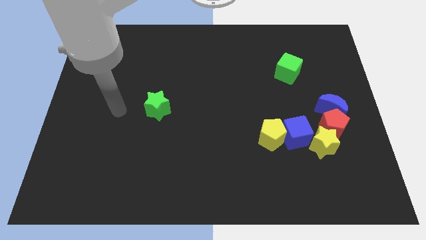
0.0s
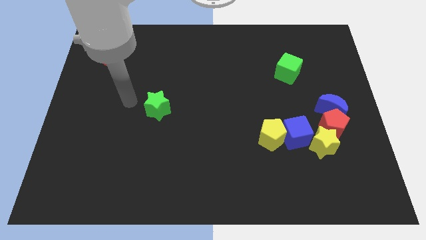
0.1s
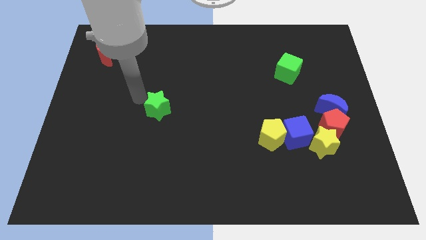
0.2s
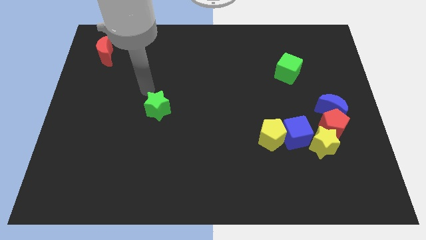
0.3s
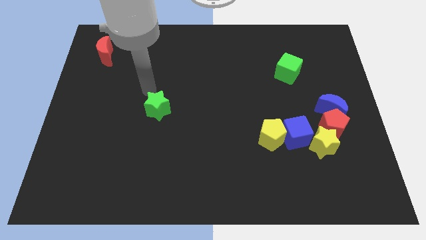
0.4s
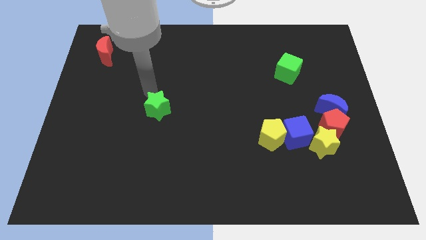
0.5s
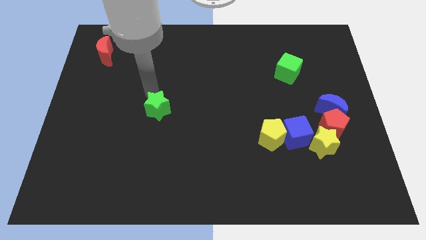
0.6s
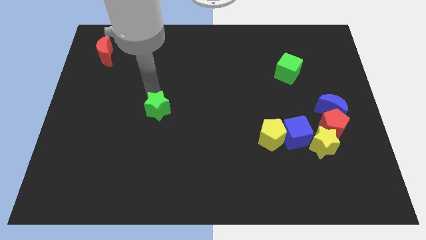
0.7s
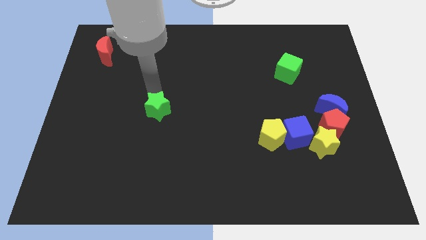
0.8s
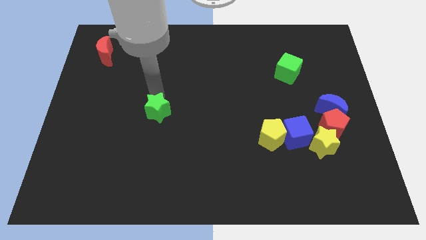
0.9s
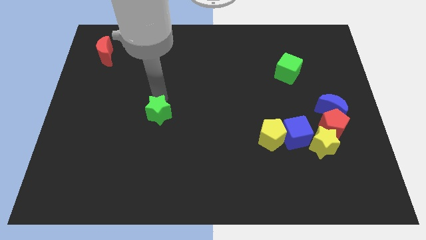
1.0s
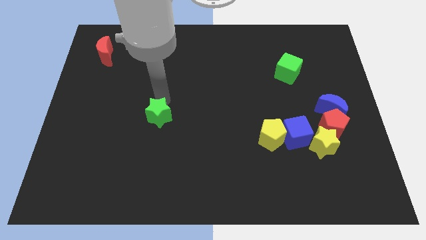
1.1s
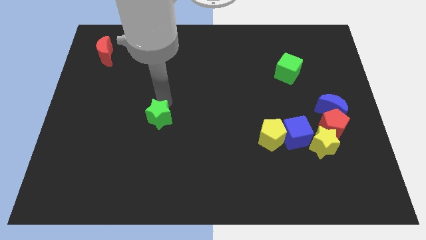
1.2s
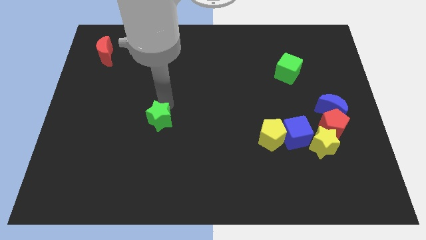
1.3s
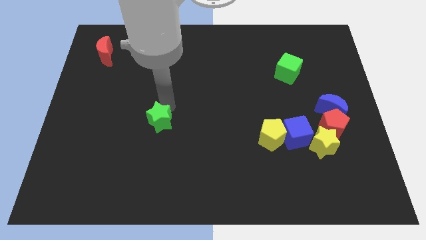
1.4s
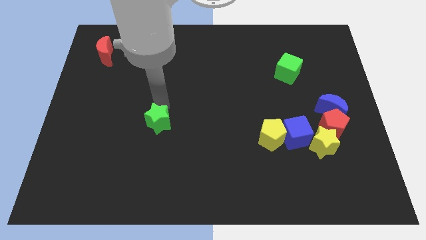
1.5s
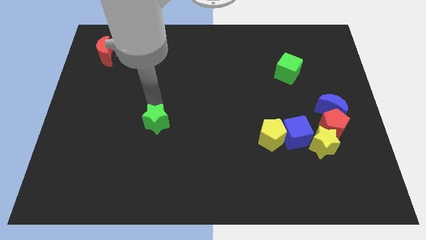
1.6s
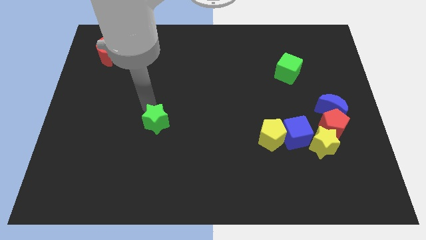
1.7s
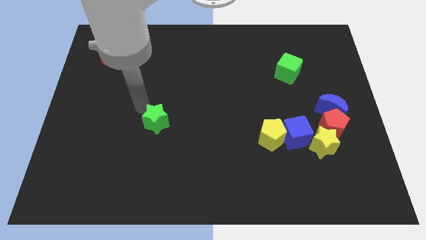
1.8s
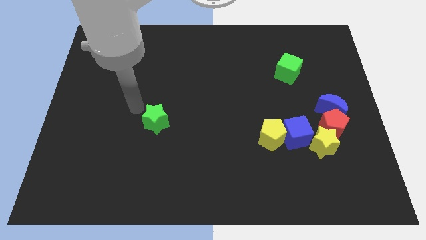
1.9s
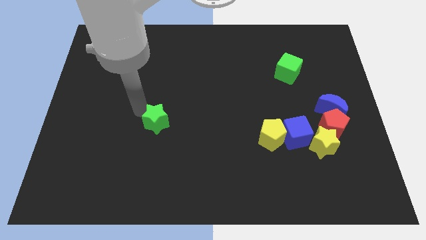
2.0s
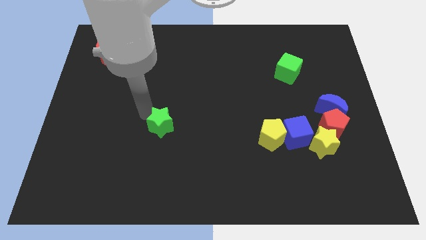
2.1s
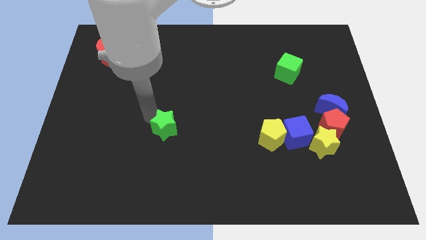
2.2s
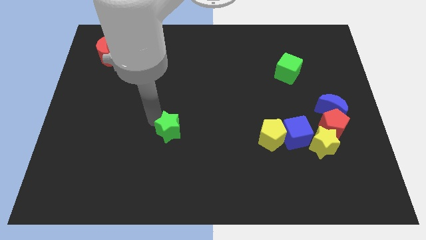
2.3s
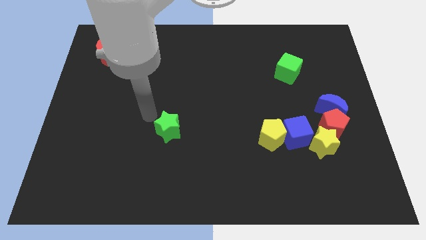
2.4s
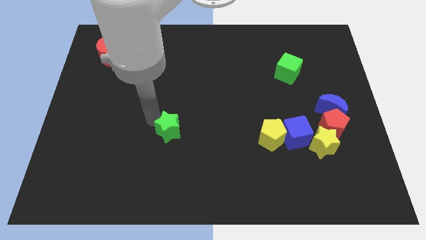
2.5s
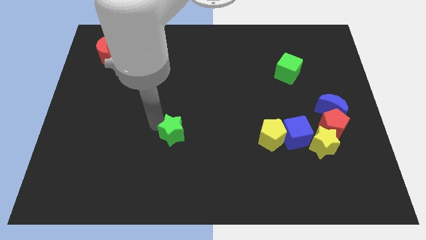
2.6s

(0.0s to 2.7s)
slightly slide the green star downwards and right

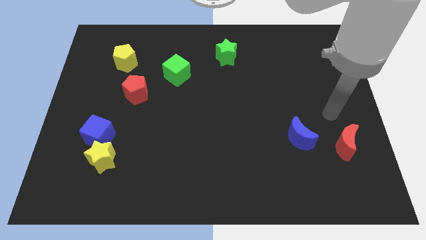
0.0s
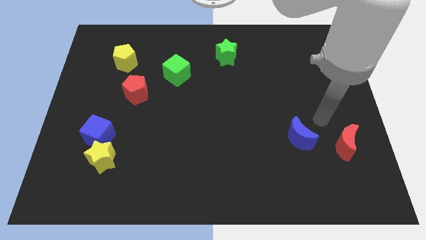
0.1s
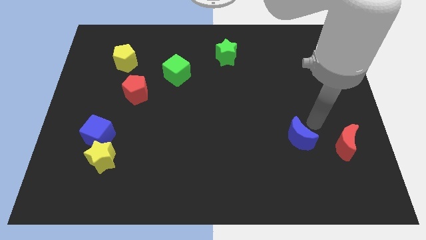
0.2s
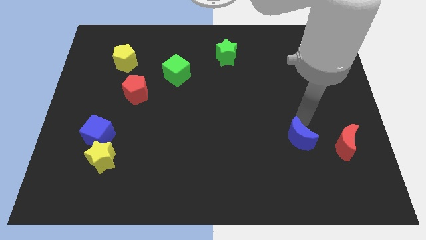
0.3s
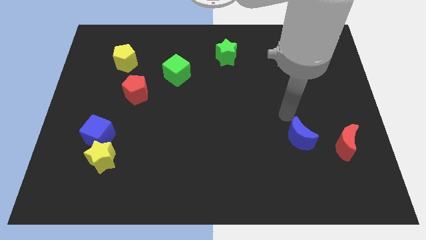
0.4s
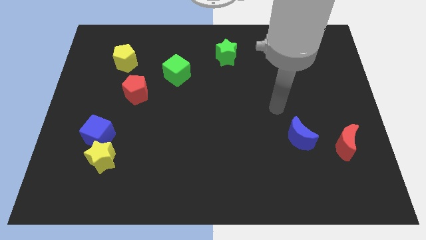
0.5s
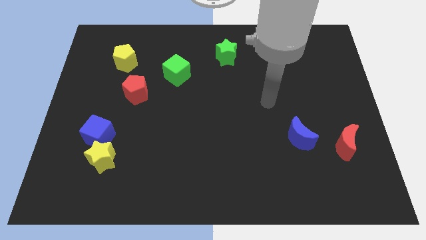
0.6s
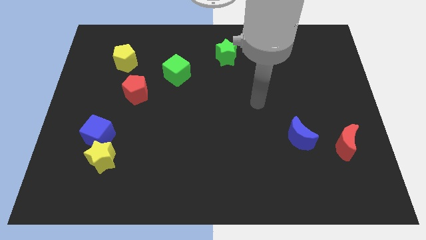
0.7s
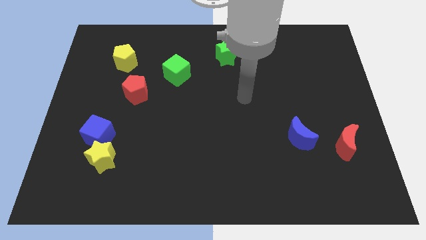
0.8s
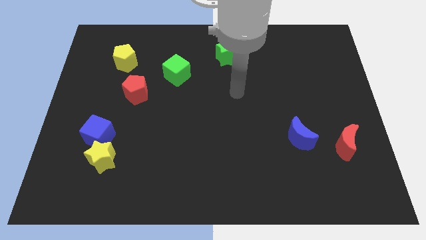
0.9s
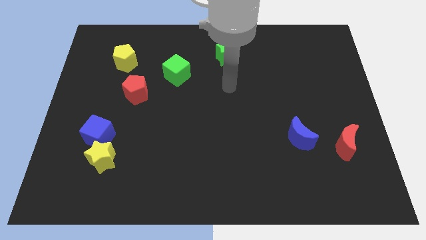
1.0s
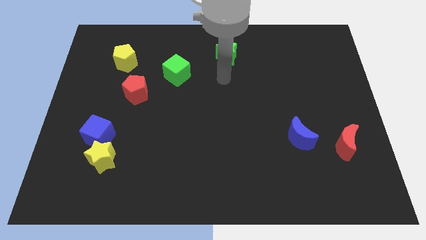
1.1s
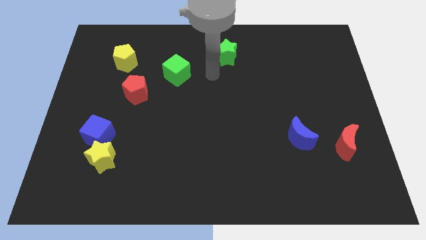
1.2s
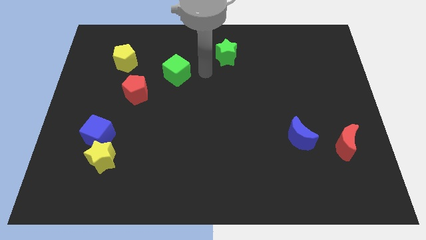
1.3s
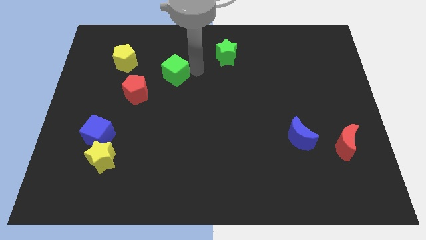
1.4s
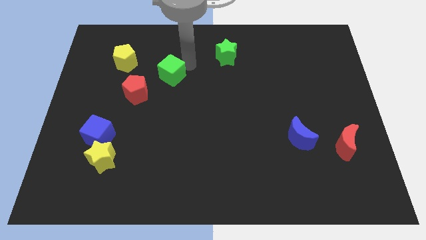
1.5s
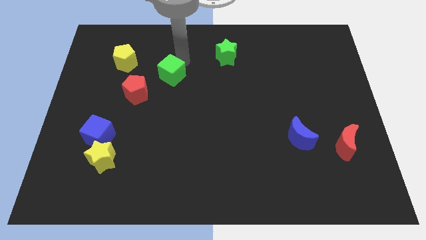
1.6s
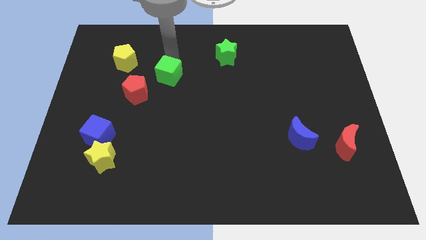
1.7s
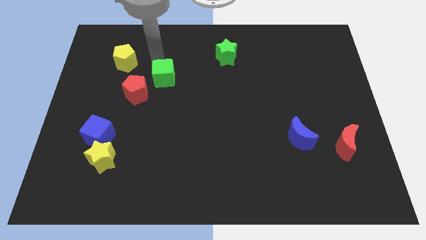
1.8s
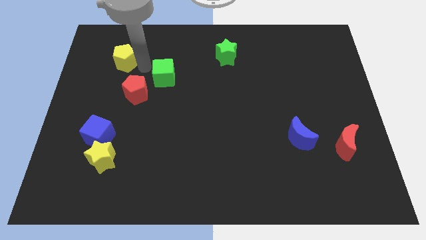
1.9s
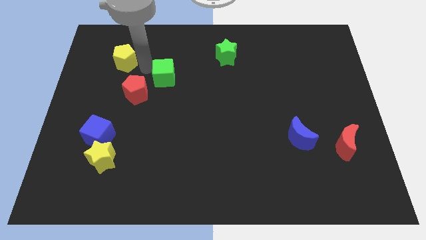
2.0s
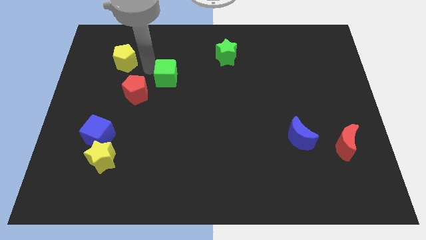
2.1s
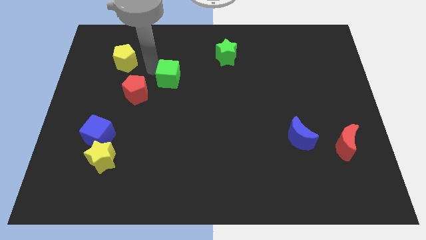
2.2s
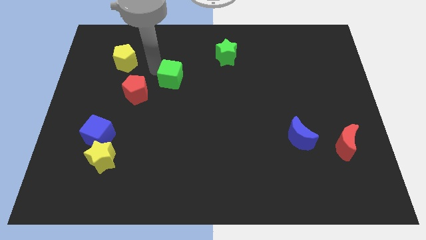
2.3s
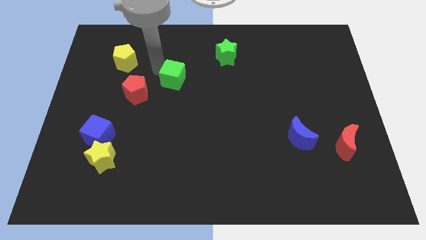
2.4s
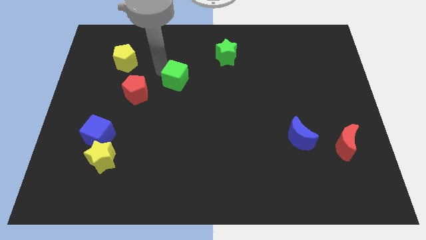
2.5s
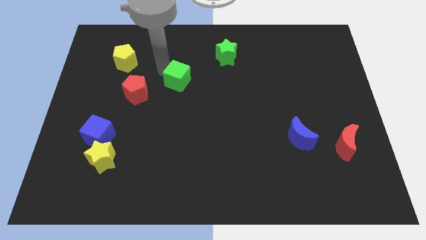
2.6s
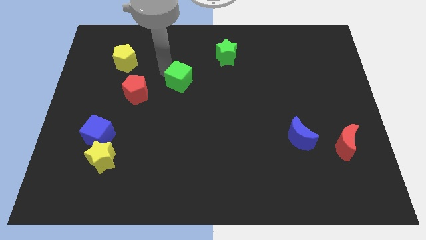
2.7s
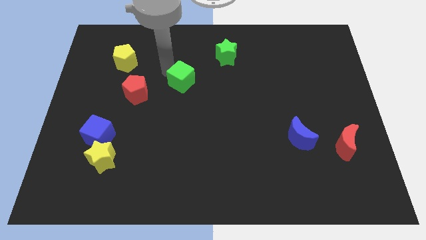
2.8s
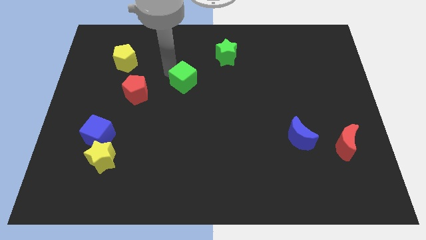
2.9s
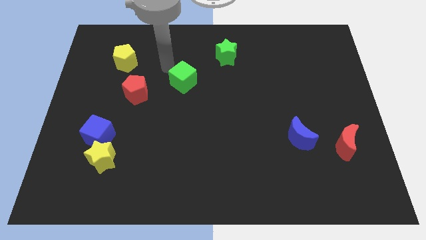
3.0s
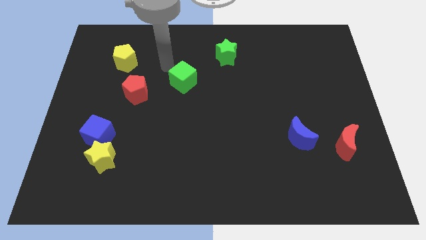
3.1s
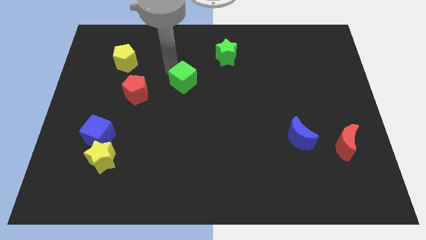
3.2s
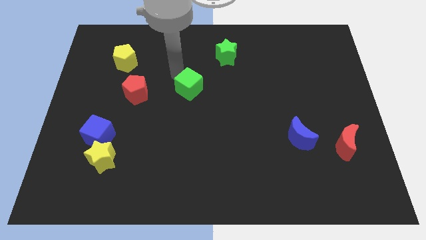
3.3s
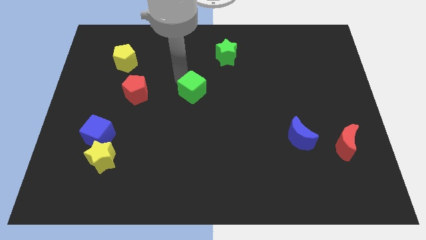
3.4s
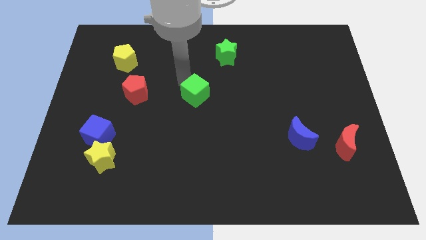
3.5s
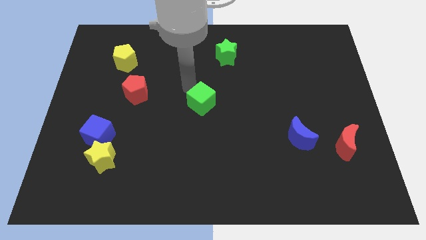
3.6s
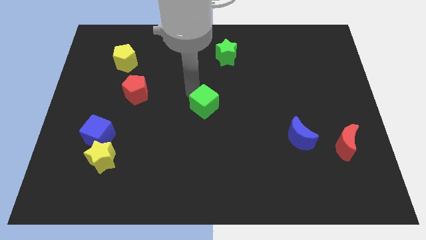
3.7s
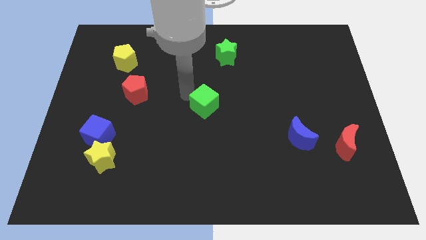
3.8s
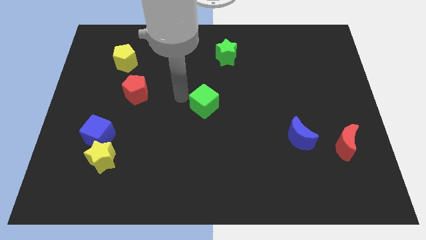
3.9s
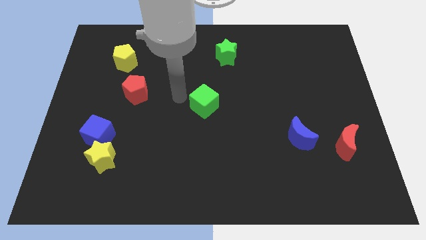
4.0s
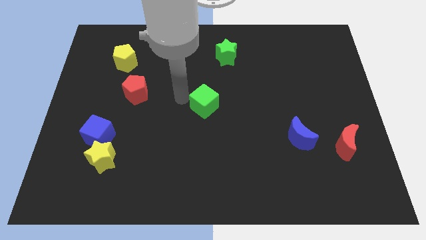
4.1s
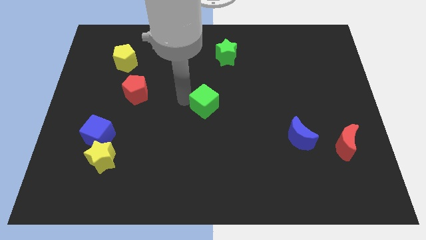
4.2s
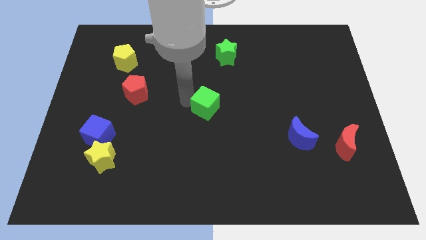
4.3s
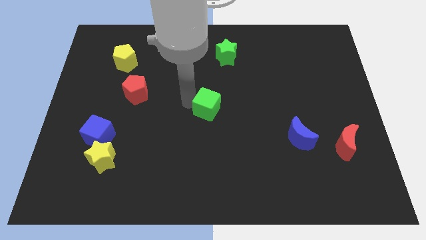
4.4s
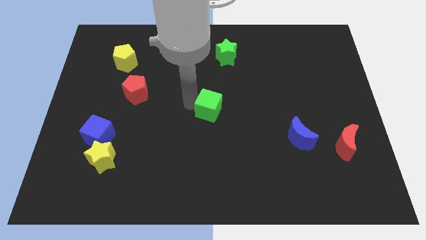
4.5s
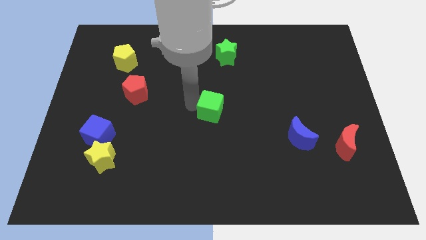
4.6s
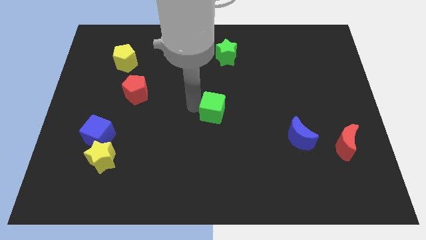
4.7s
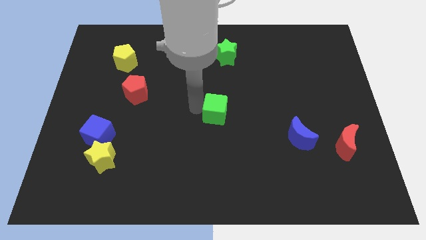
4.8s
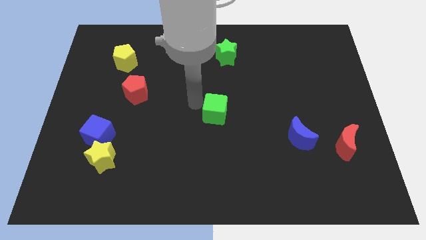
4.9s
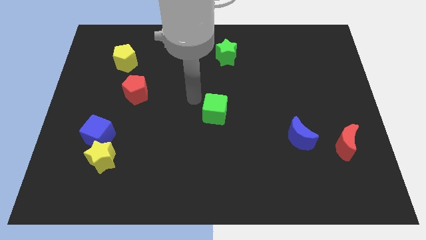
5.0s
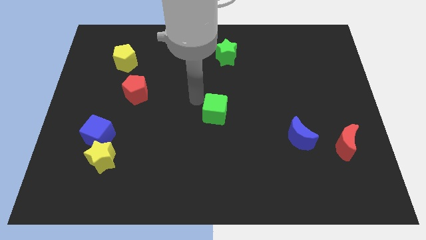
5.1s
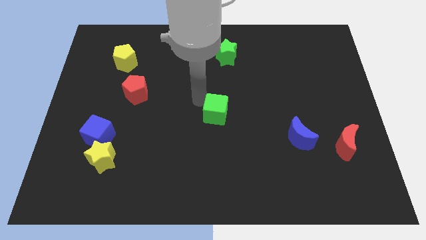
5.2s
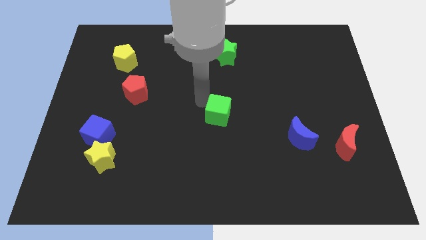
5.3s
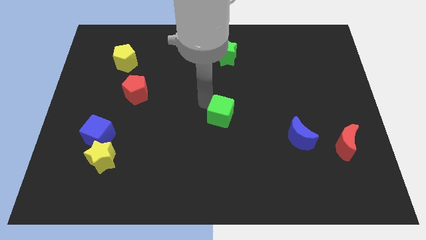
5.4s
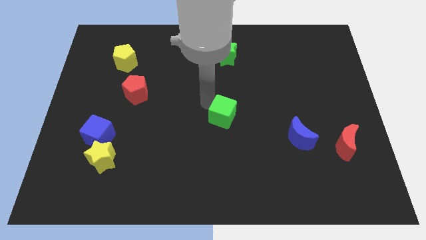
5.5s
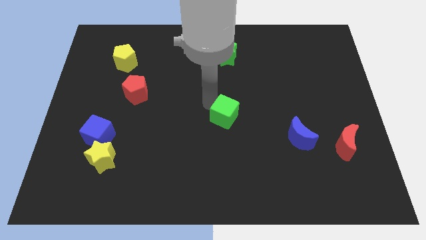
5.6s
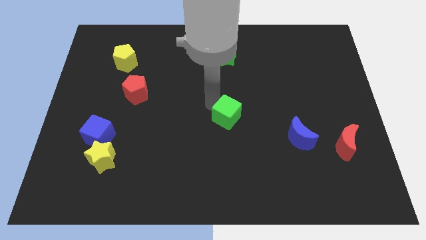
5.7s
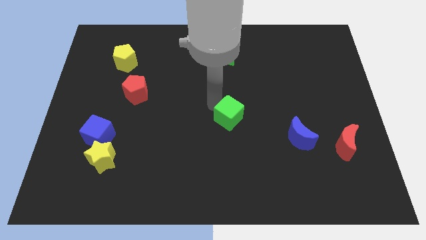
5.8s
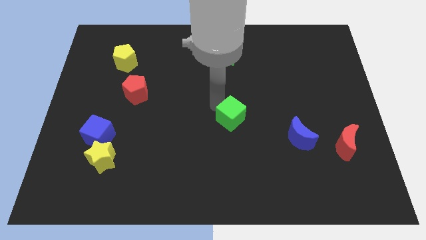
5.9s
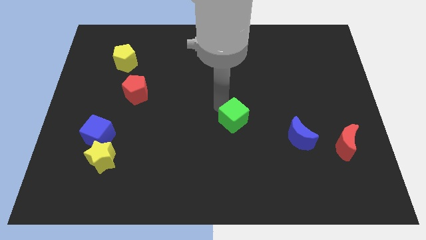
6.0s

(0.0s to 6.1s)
push the green cube downwards and to the right
